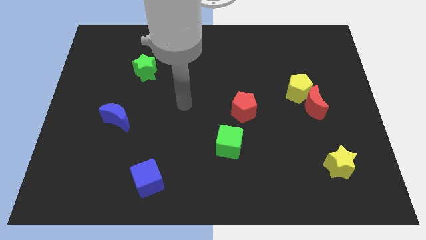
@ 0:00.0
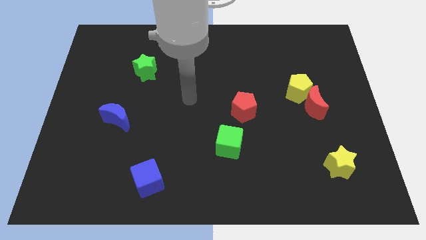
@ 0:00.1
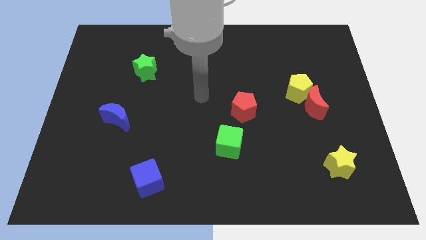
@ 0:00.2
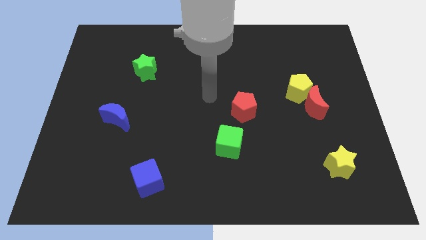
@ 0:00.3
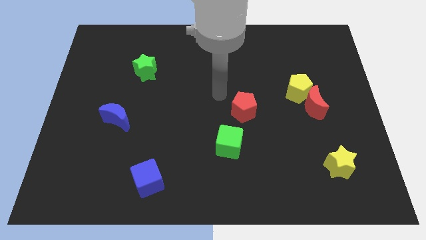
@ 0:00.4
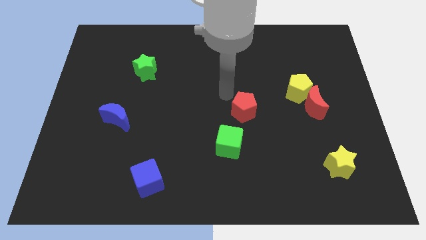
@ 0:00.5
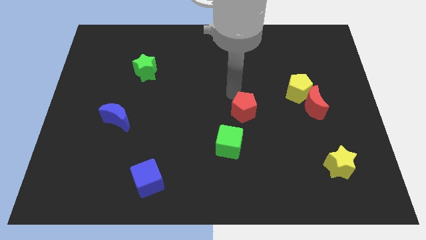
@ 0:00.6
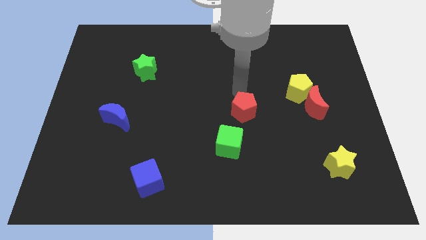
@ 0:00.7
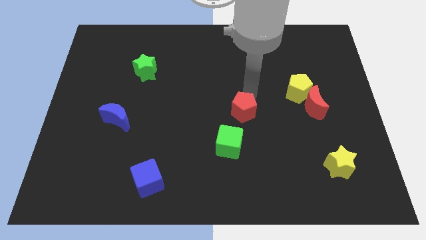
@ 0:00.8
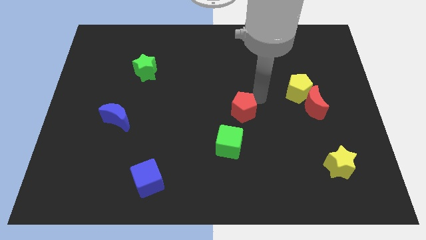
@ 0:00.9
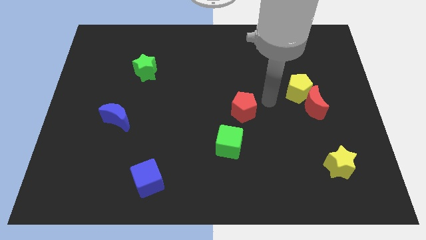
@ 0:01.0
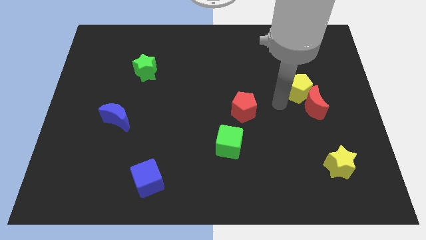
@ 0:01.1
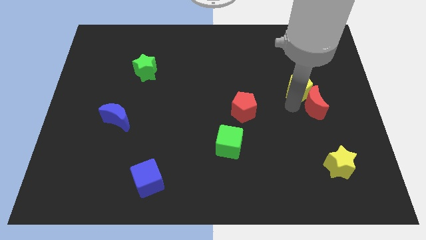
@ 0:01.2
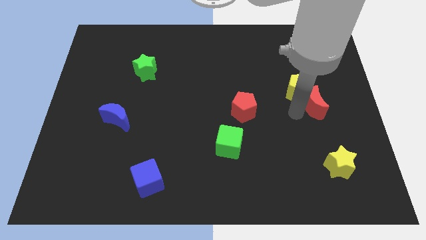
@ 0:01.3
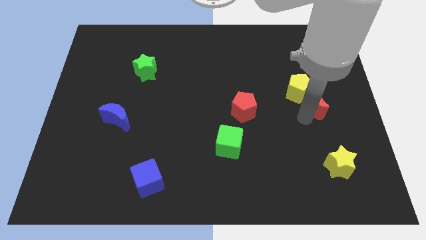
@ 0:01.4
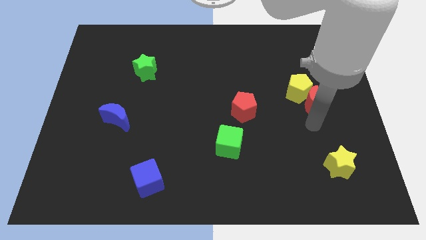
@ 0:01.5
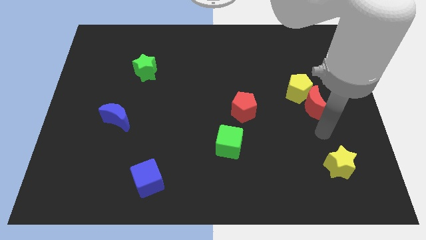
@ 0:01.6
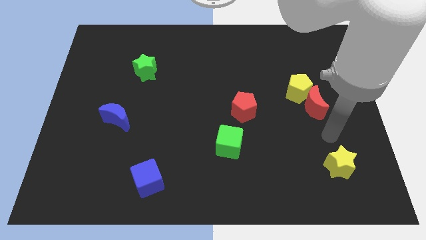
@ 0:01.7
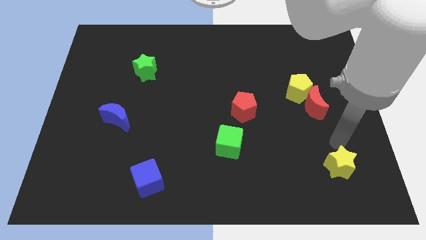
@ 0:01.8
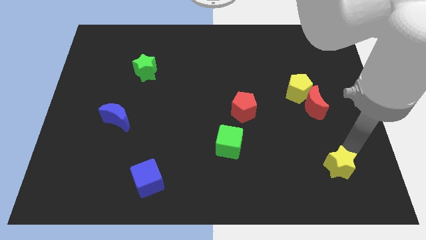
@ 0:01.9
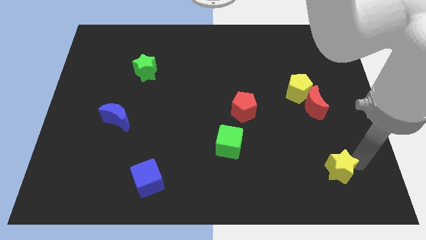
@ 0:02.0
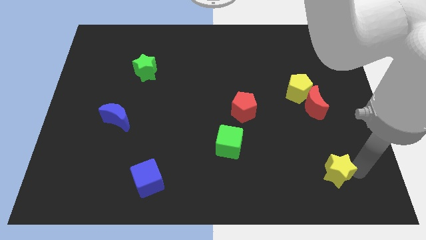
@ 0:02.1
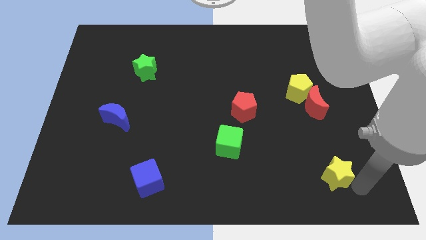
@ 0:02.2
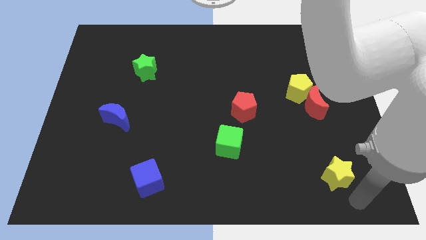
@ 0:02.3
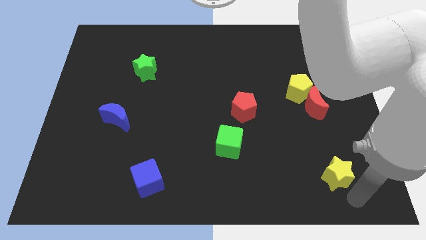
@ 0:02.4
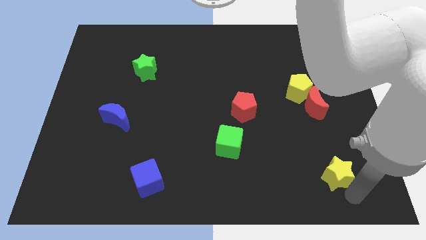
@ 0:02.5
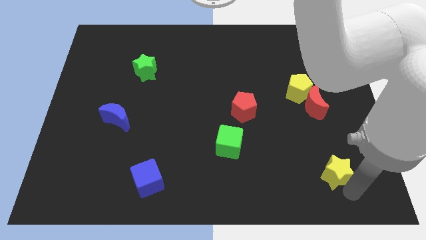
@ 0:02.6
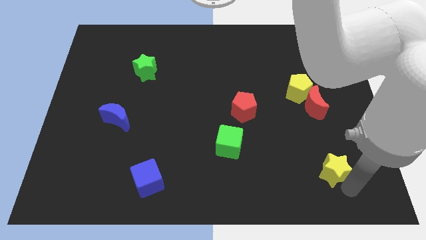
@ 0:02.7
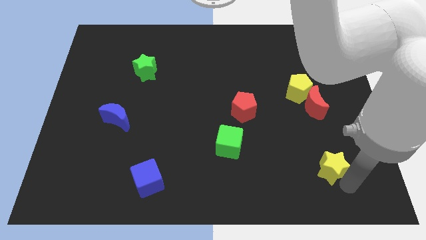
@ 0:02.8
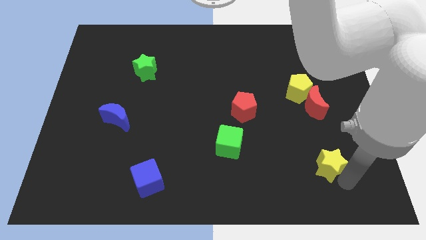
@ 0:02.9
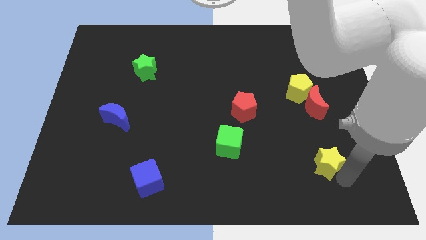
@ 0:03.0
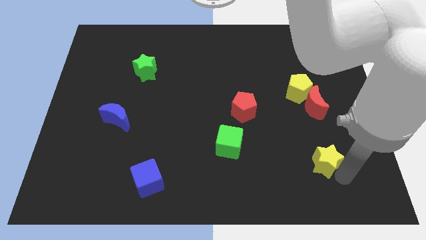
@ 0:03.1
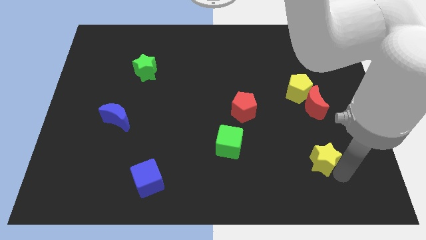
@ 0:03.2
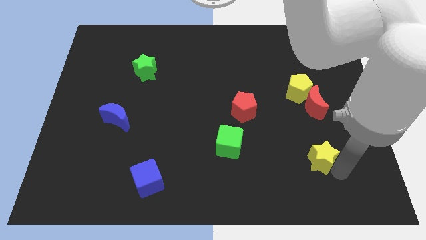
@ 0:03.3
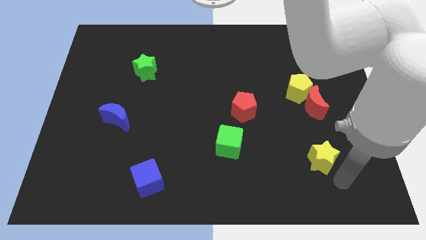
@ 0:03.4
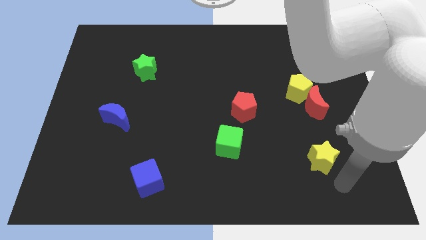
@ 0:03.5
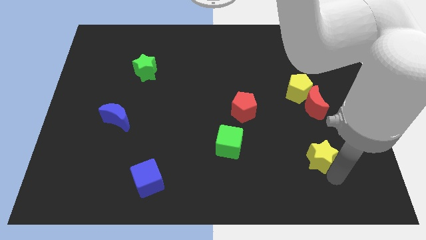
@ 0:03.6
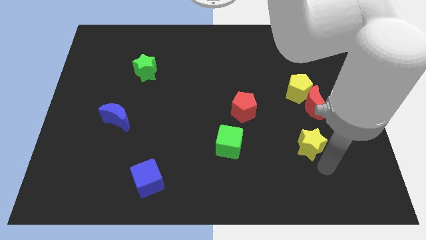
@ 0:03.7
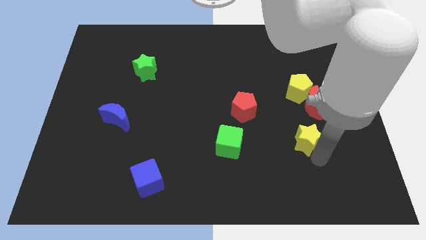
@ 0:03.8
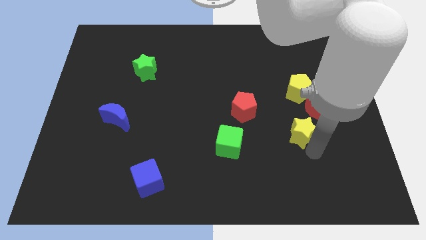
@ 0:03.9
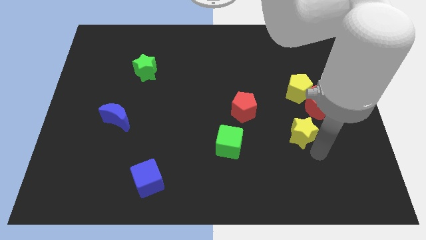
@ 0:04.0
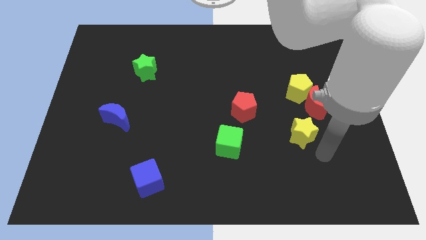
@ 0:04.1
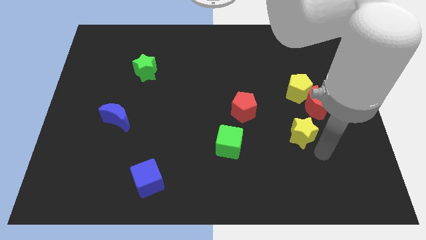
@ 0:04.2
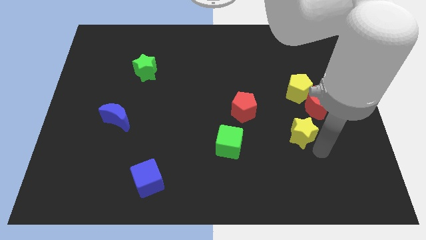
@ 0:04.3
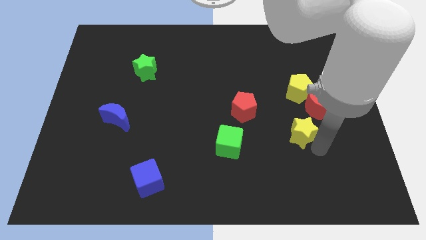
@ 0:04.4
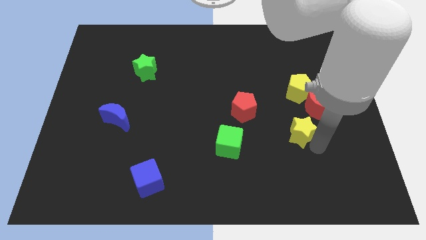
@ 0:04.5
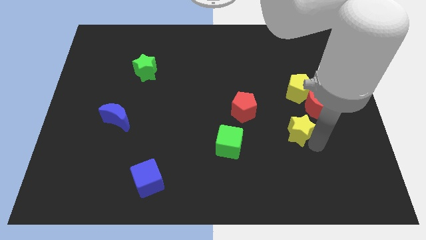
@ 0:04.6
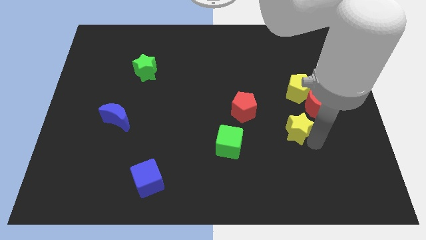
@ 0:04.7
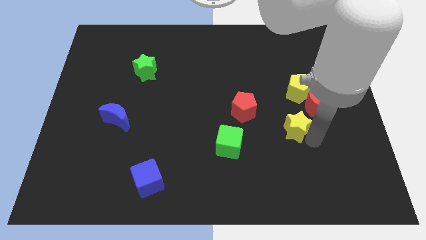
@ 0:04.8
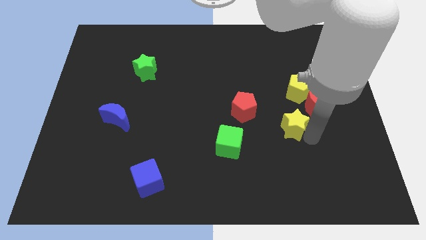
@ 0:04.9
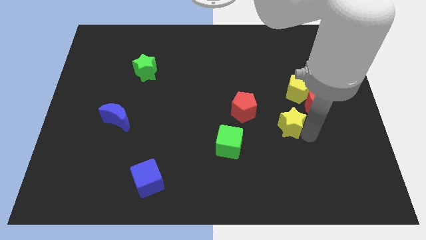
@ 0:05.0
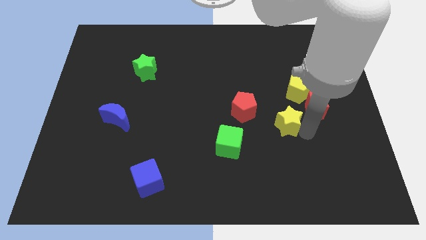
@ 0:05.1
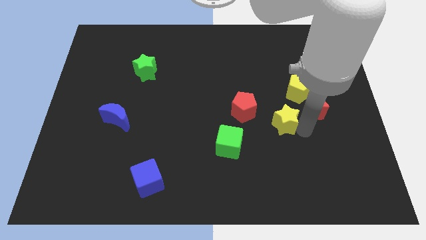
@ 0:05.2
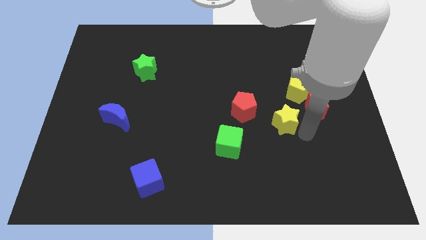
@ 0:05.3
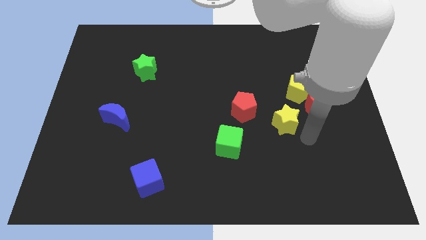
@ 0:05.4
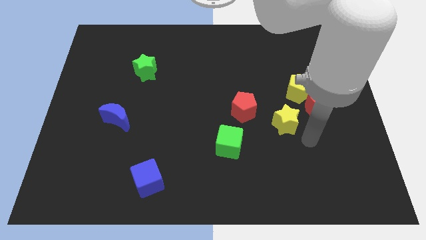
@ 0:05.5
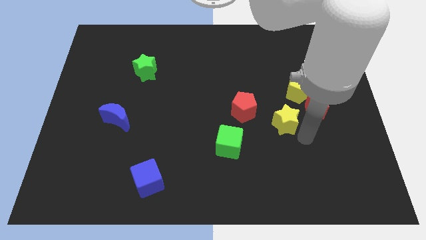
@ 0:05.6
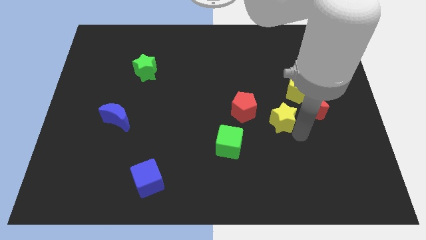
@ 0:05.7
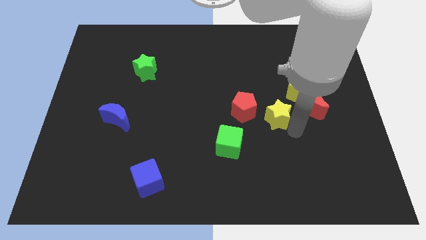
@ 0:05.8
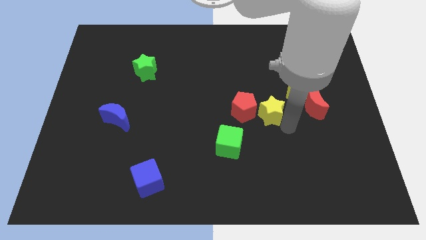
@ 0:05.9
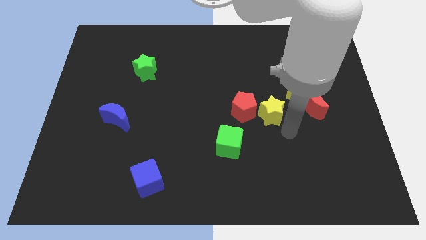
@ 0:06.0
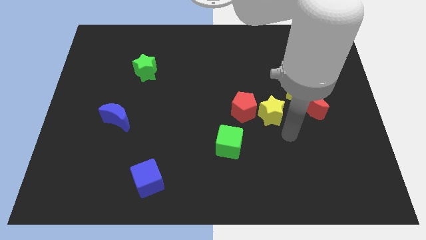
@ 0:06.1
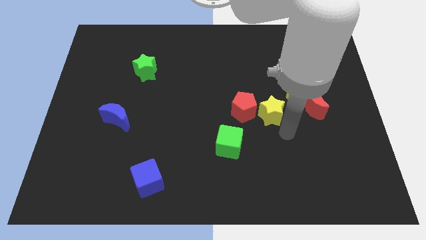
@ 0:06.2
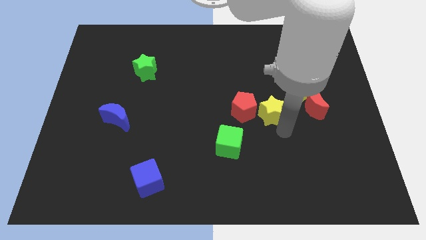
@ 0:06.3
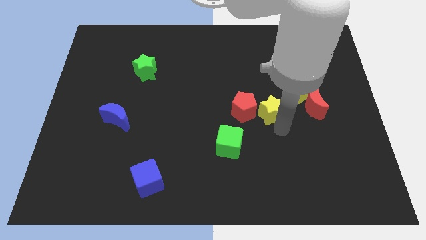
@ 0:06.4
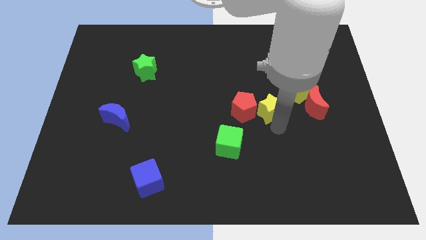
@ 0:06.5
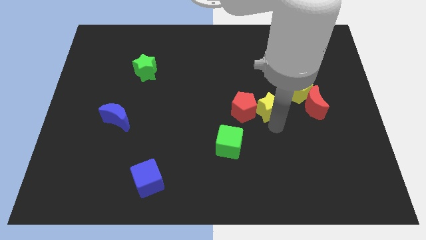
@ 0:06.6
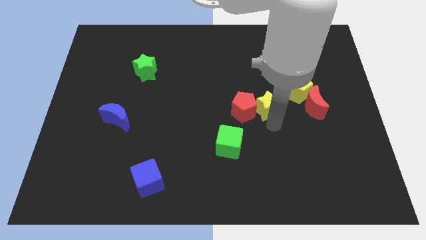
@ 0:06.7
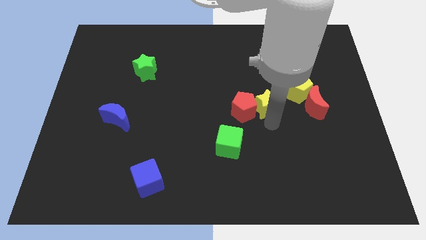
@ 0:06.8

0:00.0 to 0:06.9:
move the yellow star to the center
